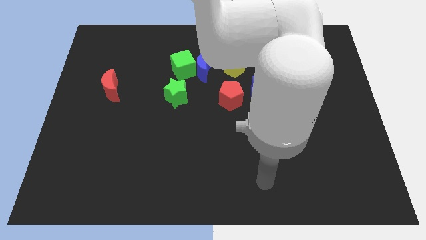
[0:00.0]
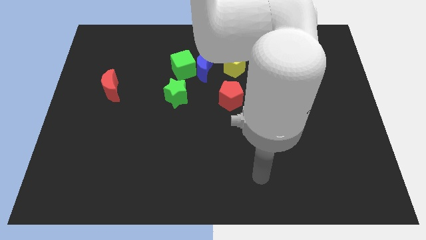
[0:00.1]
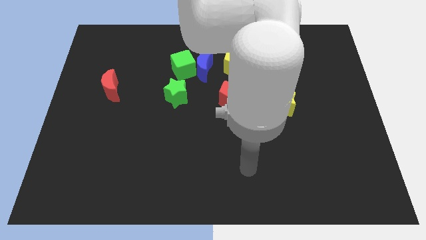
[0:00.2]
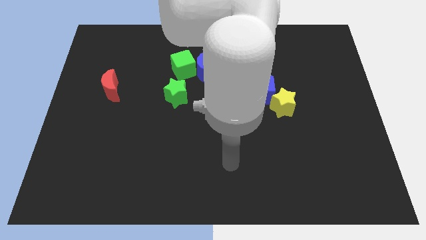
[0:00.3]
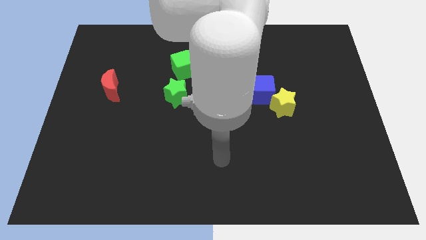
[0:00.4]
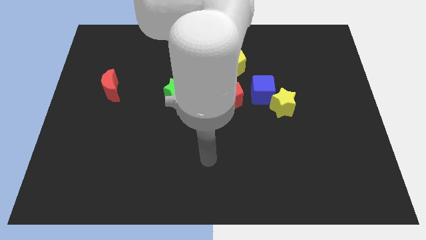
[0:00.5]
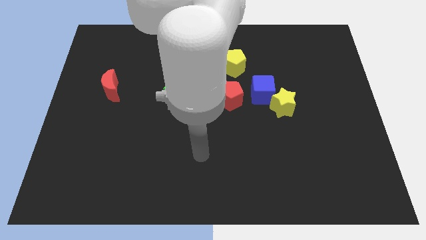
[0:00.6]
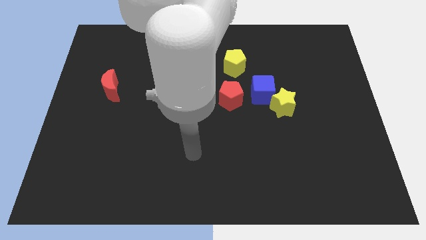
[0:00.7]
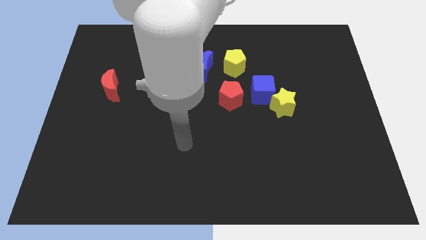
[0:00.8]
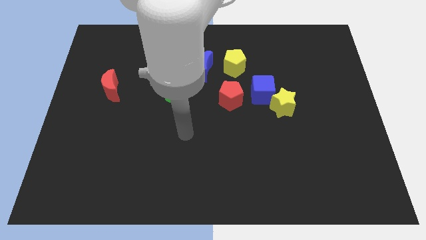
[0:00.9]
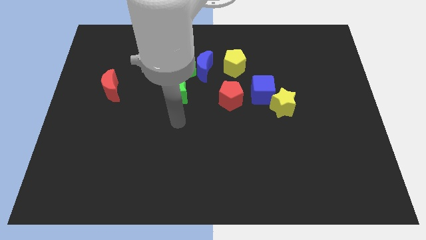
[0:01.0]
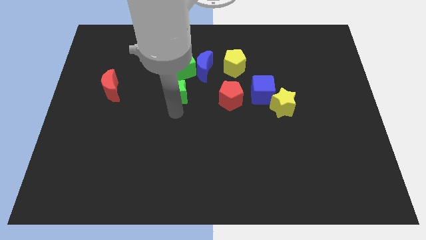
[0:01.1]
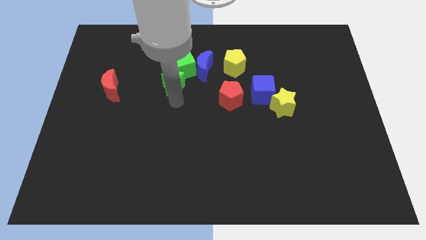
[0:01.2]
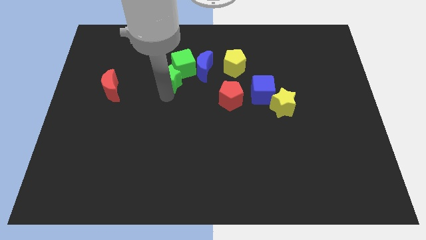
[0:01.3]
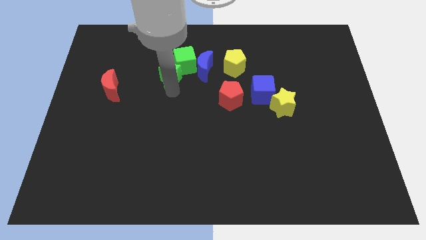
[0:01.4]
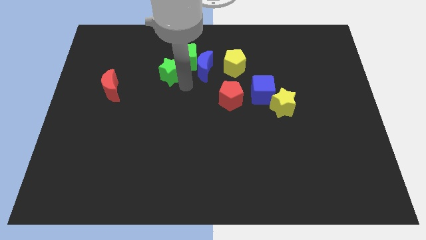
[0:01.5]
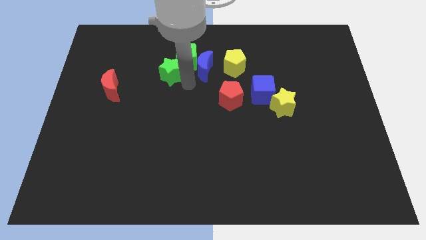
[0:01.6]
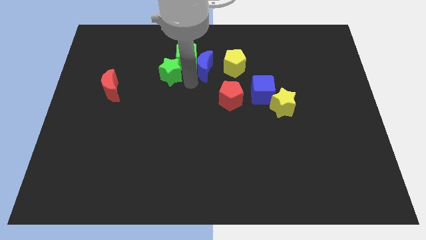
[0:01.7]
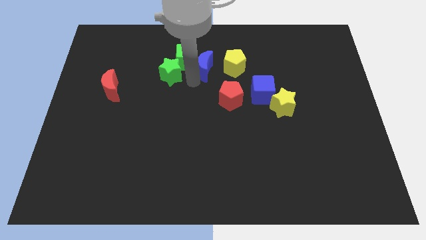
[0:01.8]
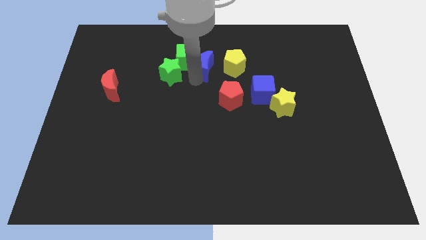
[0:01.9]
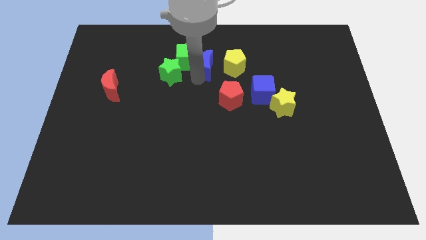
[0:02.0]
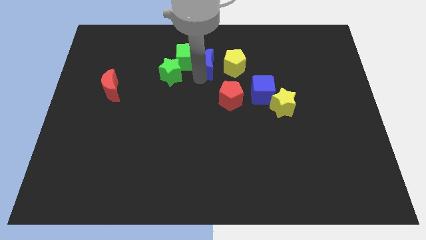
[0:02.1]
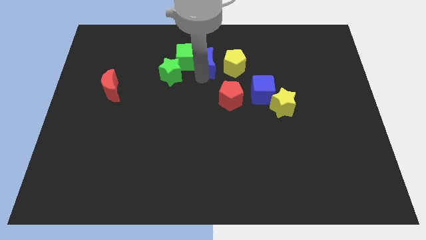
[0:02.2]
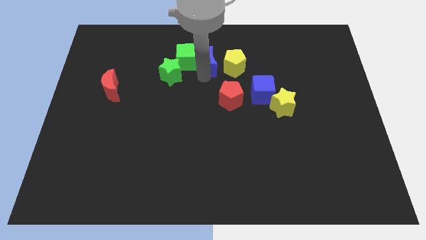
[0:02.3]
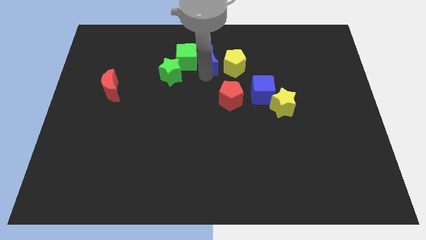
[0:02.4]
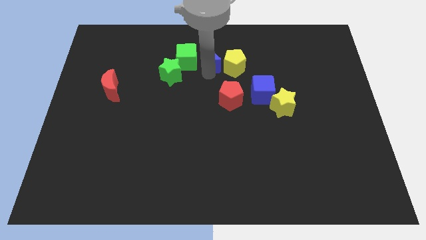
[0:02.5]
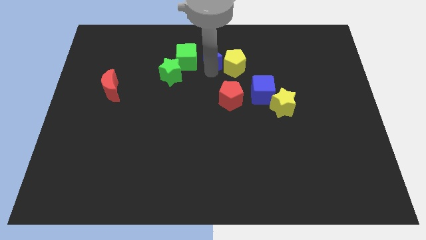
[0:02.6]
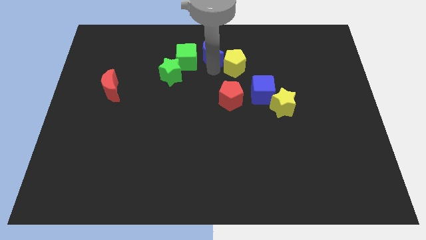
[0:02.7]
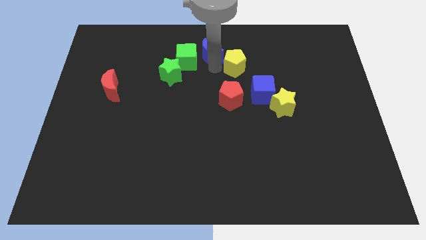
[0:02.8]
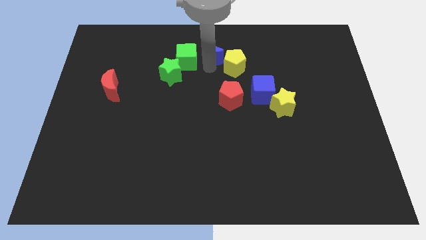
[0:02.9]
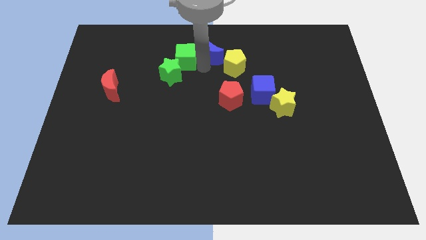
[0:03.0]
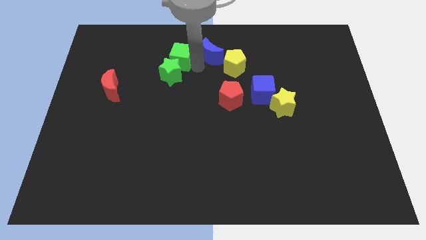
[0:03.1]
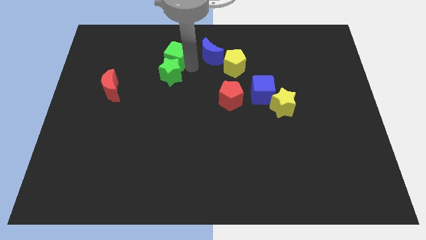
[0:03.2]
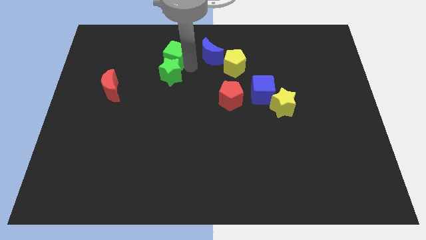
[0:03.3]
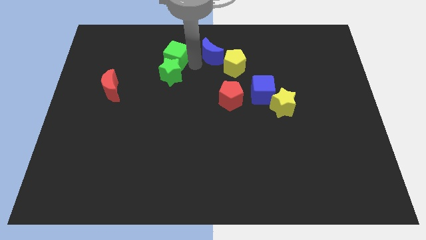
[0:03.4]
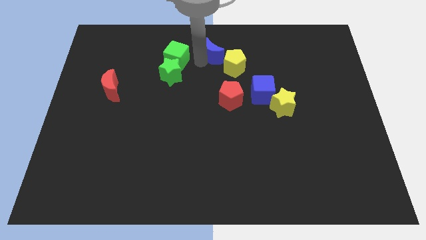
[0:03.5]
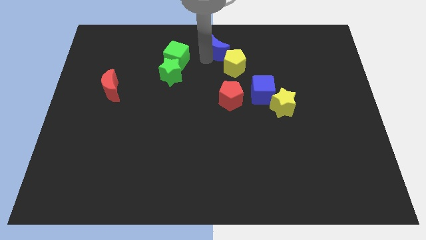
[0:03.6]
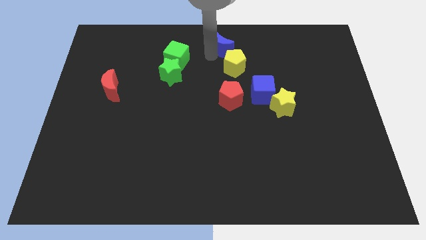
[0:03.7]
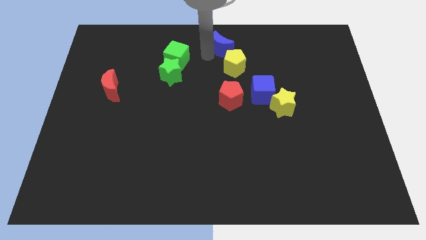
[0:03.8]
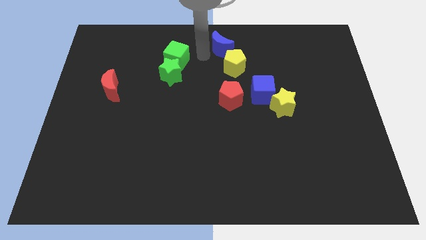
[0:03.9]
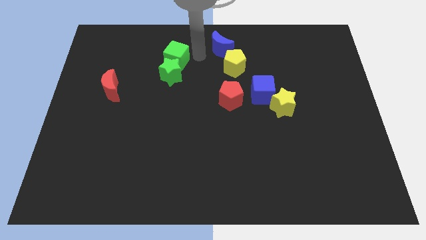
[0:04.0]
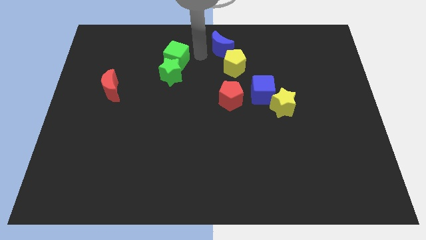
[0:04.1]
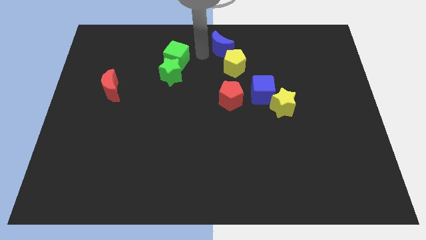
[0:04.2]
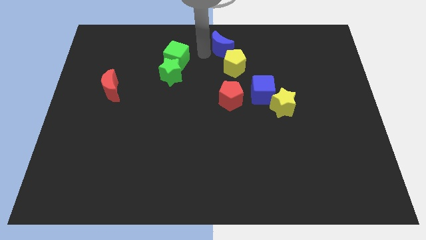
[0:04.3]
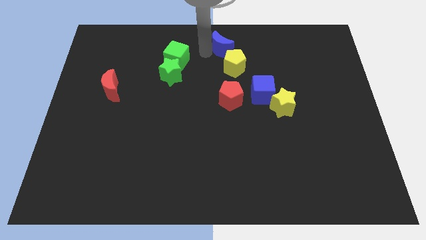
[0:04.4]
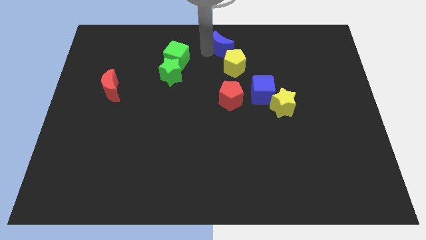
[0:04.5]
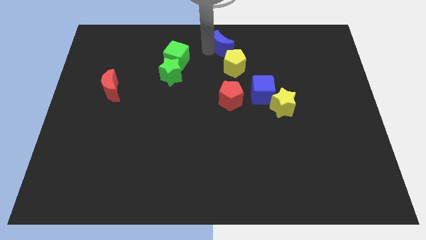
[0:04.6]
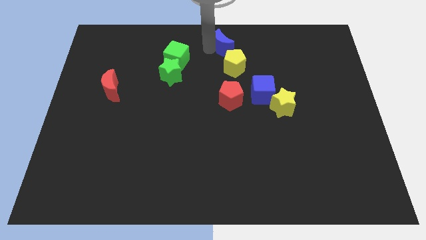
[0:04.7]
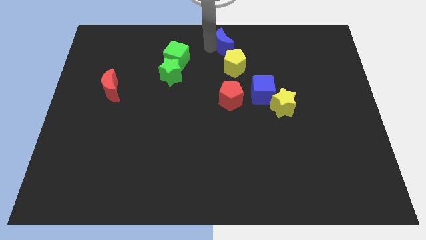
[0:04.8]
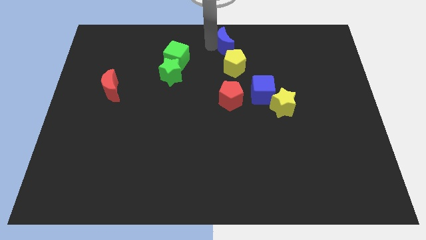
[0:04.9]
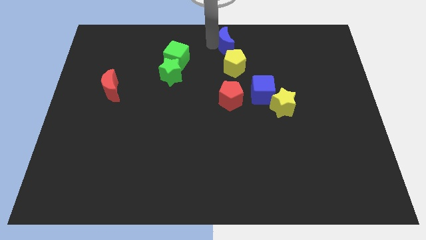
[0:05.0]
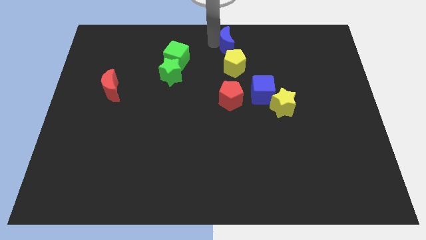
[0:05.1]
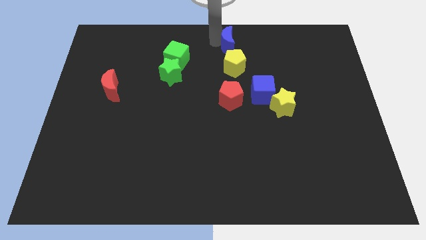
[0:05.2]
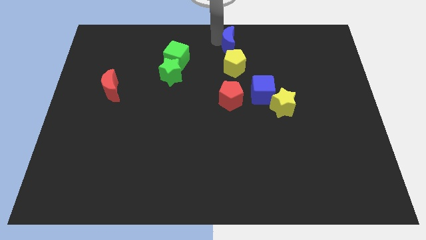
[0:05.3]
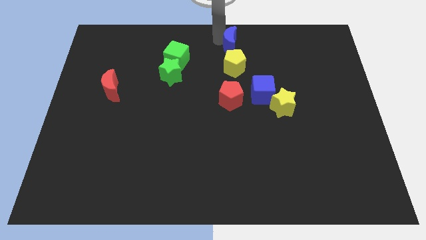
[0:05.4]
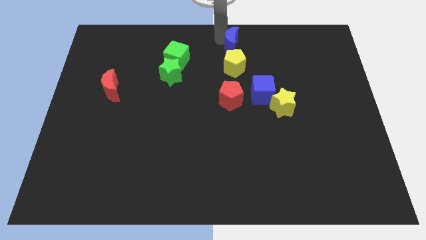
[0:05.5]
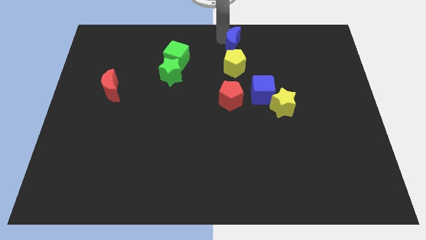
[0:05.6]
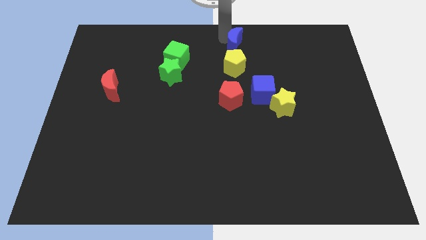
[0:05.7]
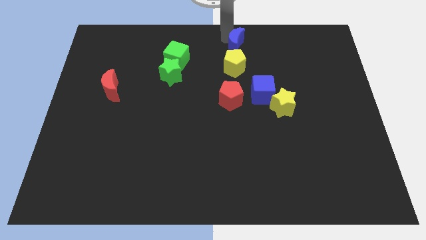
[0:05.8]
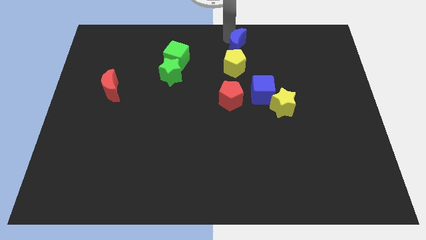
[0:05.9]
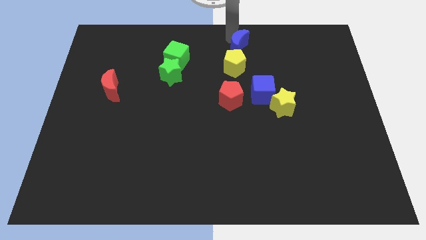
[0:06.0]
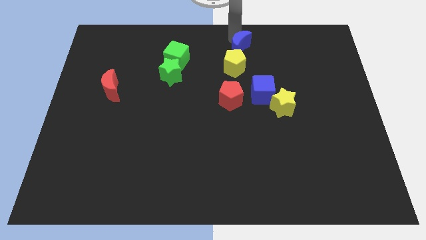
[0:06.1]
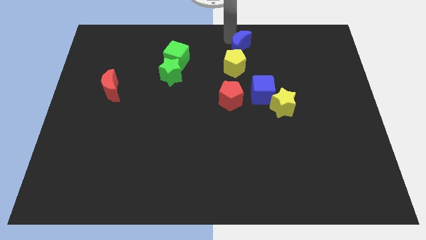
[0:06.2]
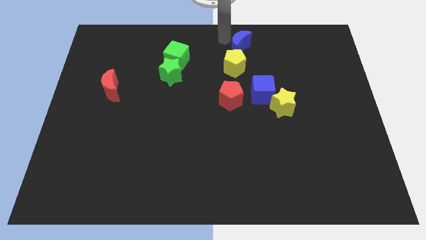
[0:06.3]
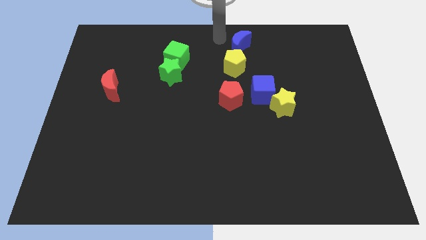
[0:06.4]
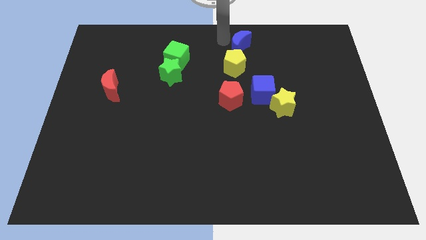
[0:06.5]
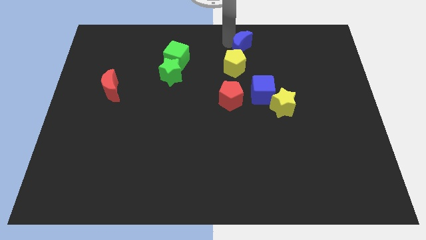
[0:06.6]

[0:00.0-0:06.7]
slightly move the blue moon right

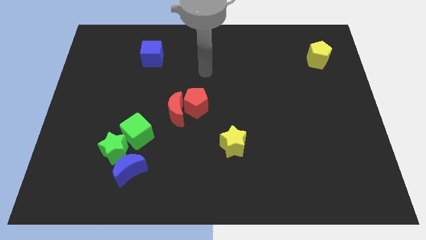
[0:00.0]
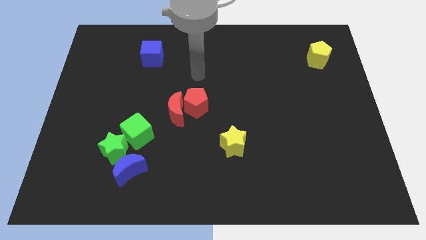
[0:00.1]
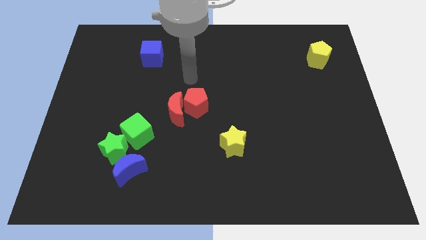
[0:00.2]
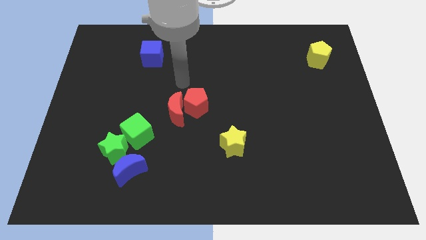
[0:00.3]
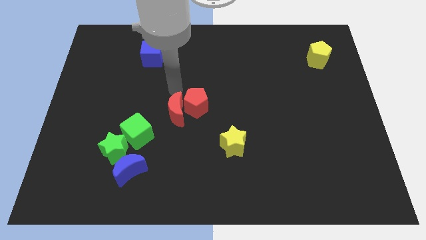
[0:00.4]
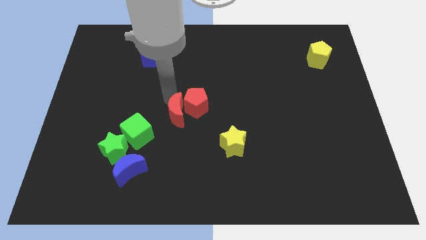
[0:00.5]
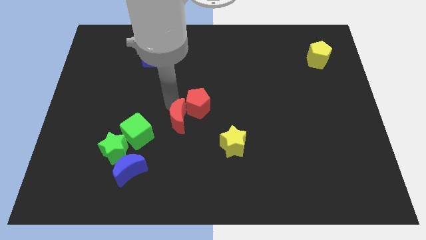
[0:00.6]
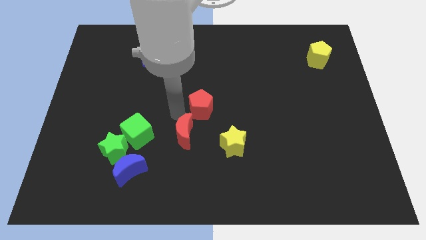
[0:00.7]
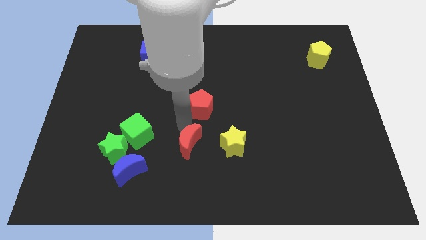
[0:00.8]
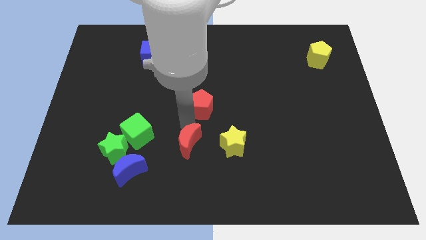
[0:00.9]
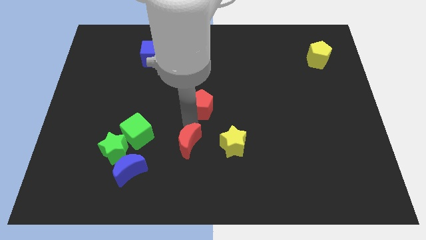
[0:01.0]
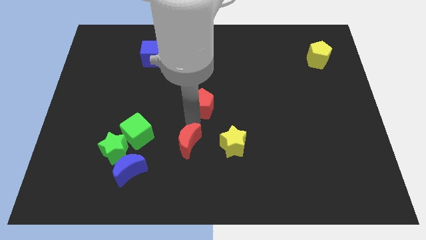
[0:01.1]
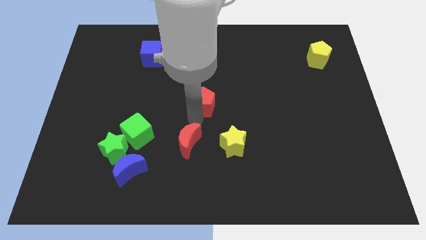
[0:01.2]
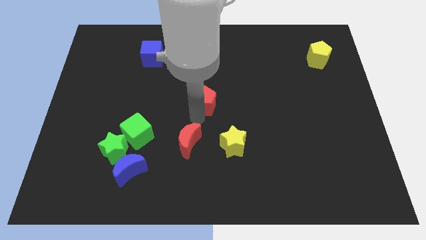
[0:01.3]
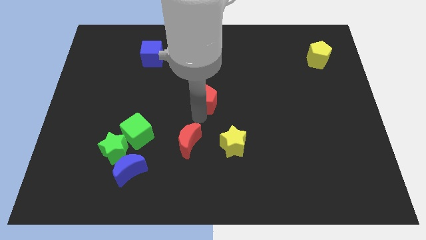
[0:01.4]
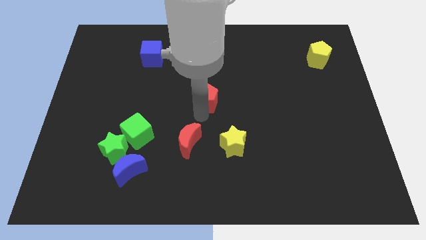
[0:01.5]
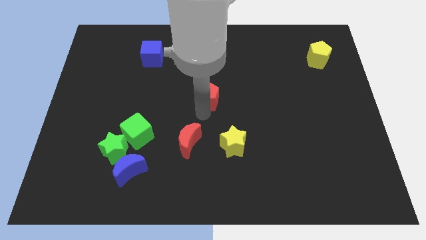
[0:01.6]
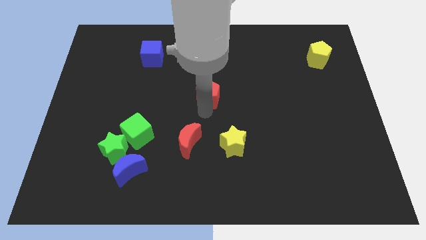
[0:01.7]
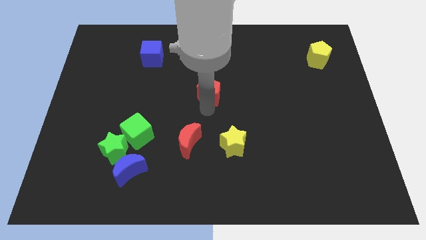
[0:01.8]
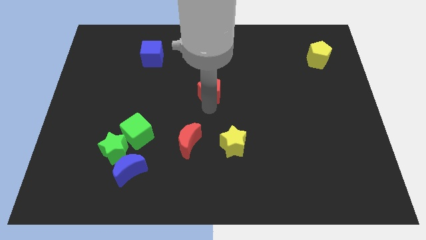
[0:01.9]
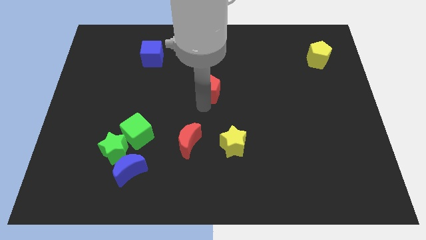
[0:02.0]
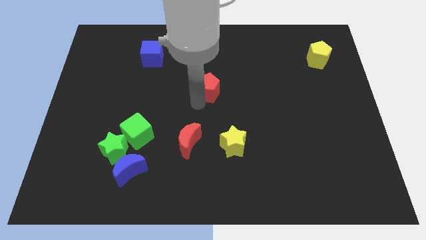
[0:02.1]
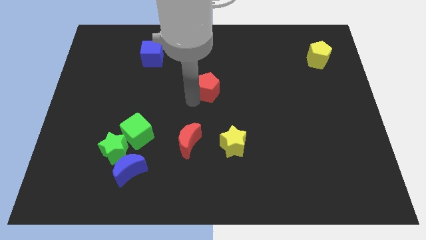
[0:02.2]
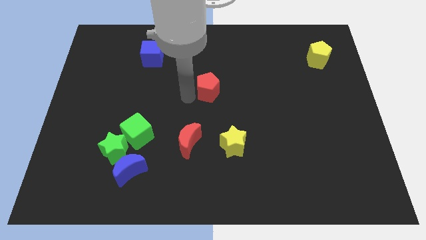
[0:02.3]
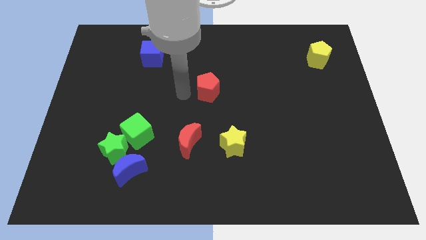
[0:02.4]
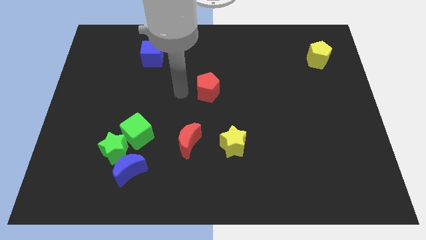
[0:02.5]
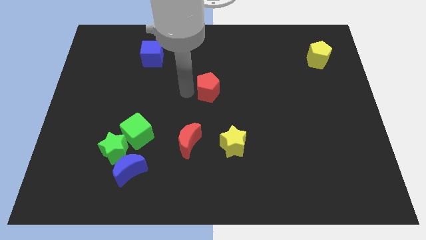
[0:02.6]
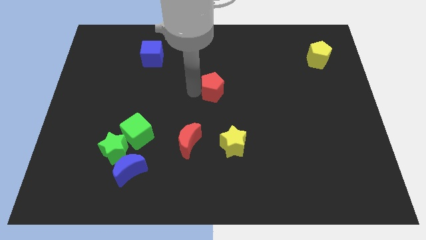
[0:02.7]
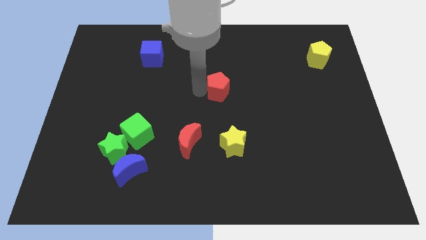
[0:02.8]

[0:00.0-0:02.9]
slide the red pentagon somewhat up and to the right diagonally
